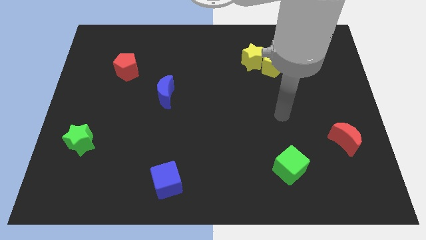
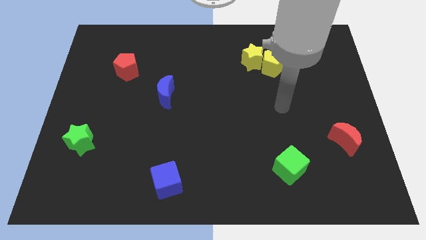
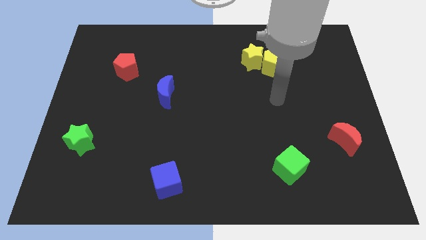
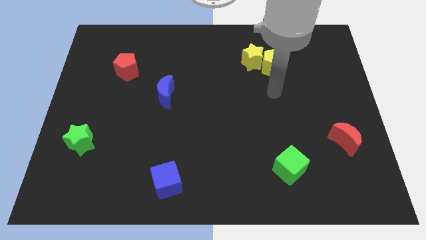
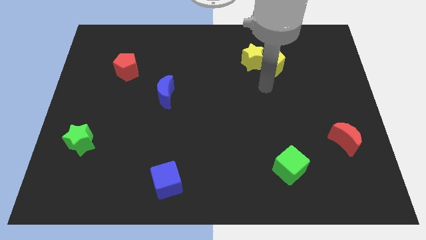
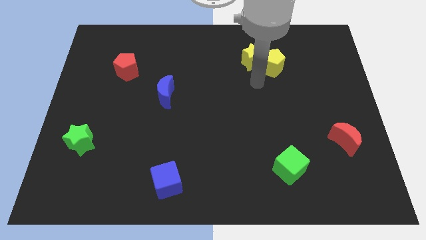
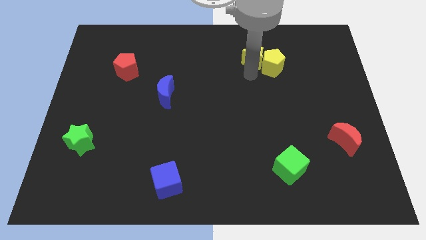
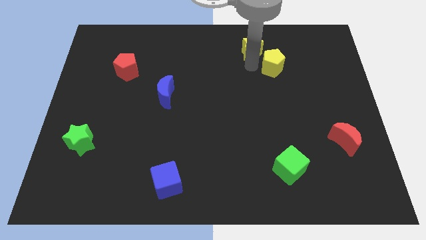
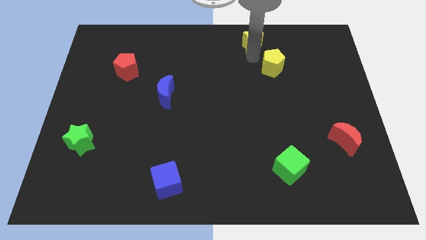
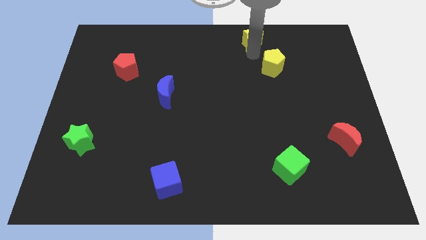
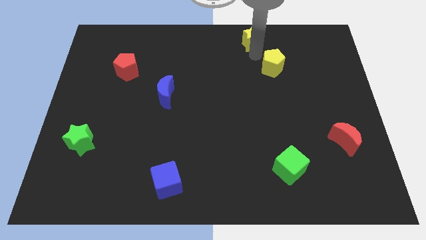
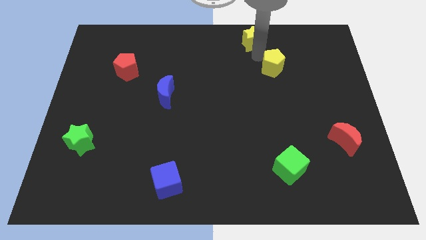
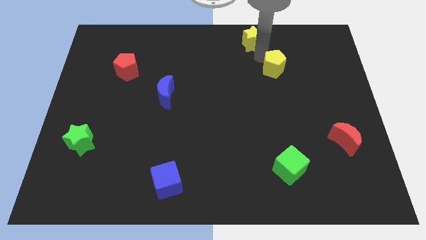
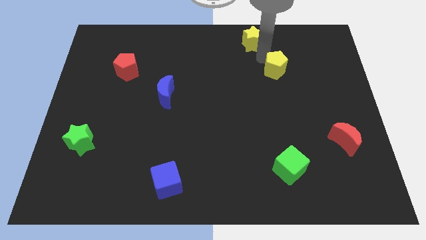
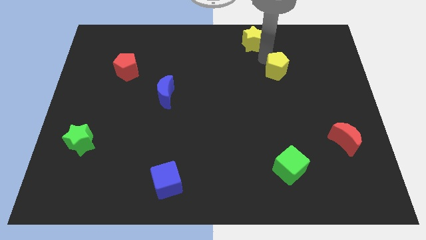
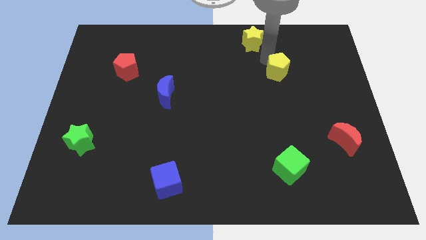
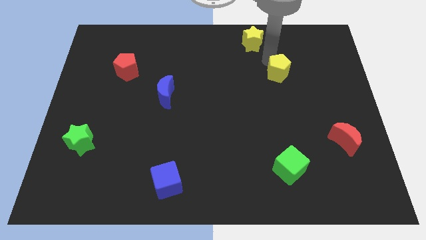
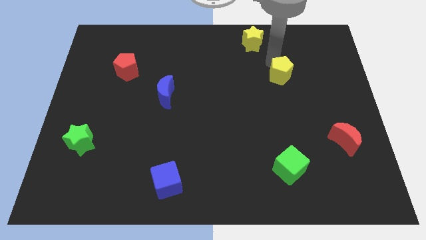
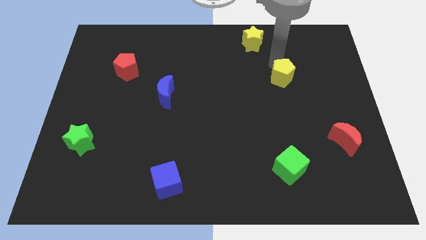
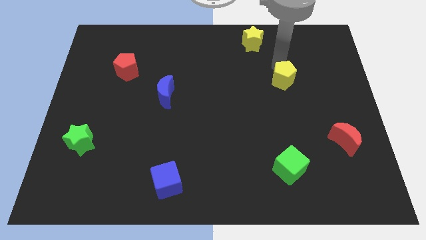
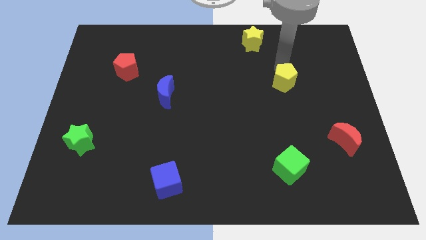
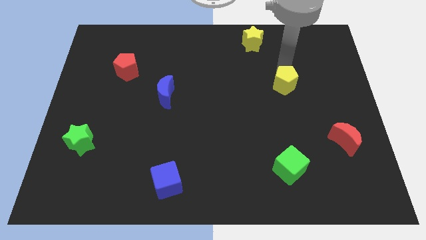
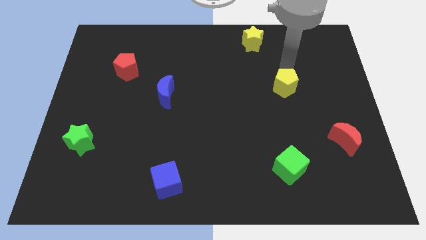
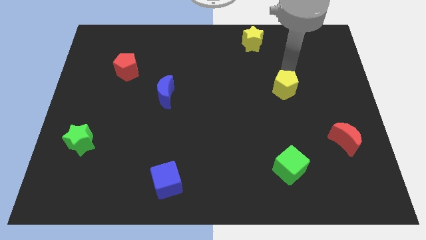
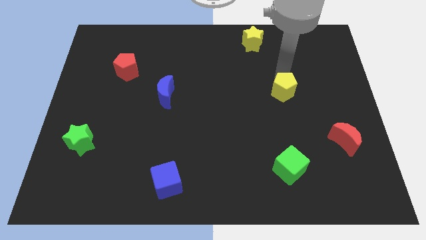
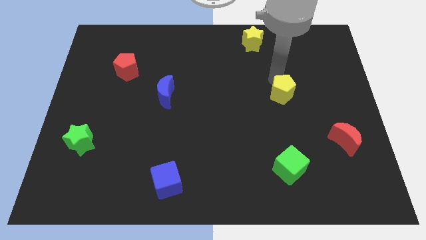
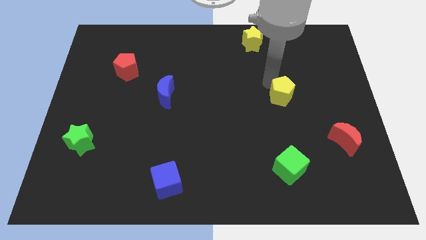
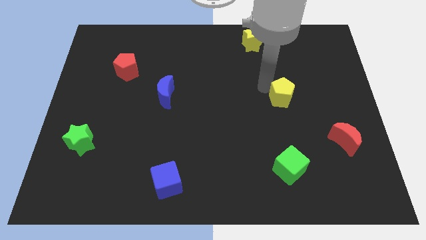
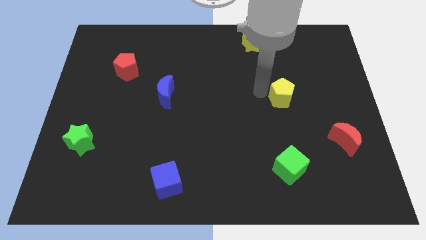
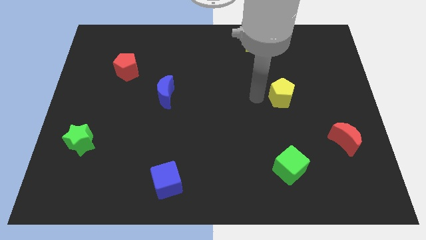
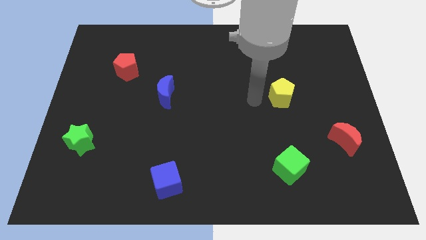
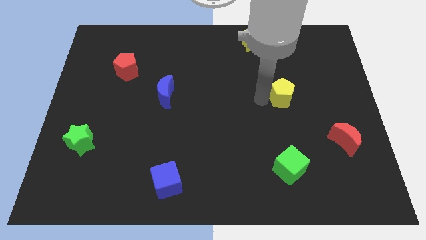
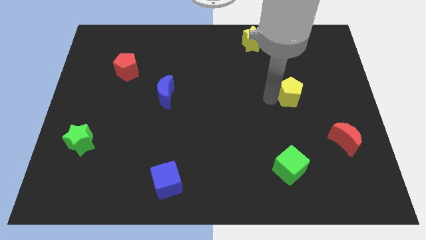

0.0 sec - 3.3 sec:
move the yellow pentagon down and then right a little

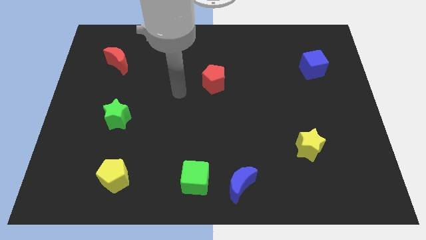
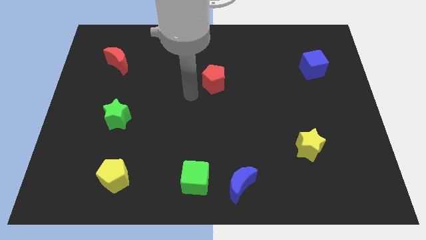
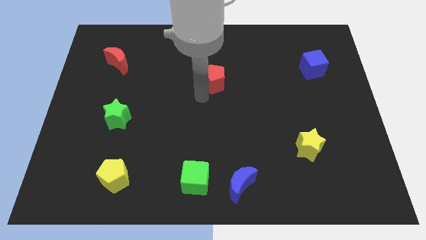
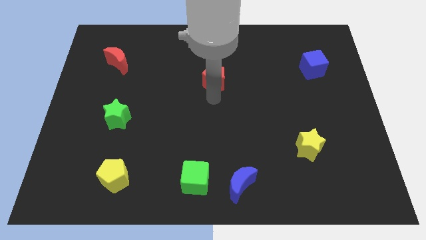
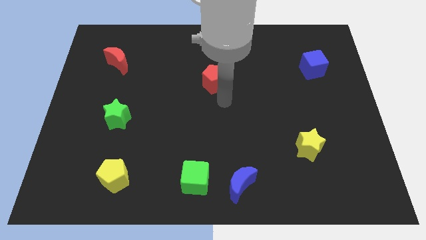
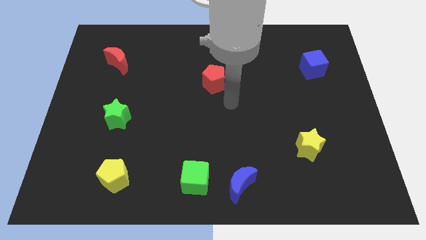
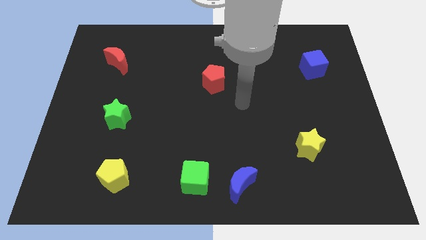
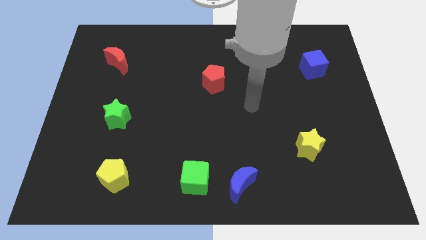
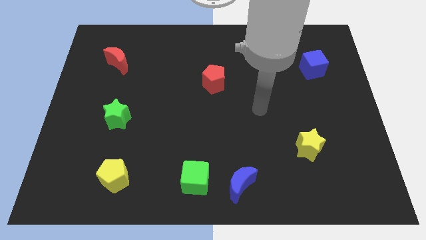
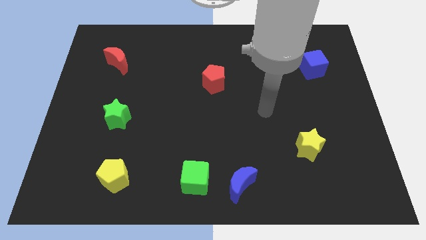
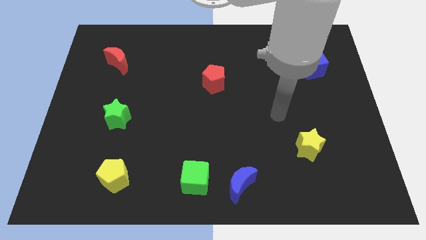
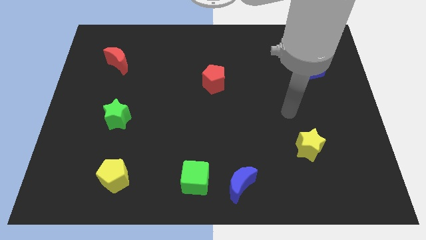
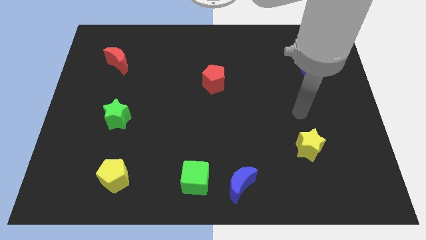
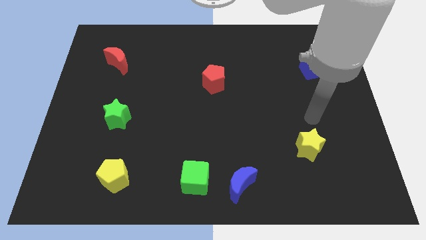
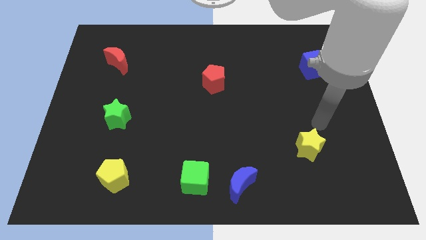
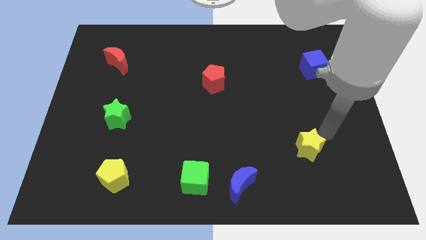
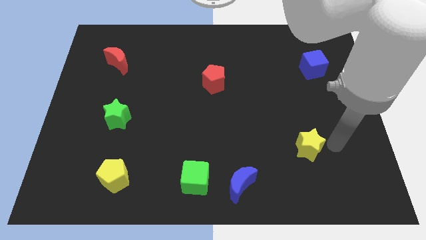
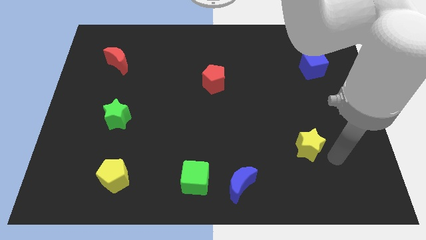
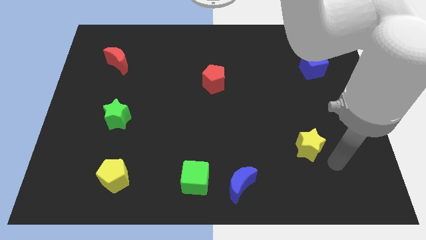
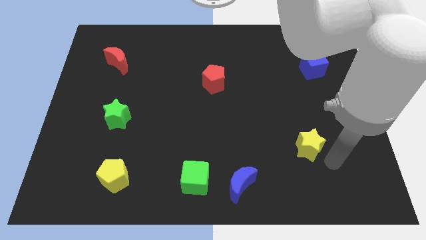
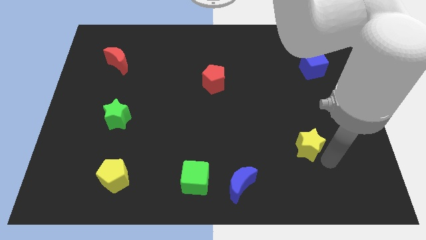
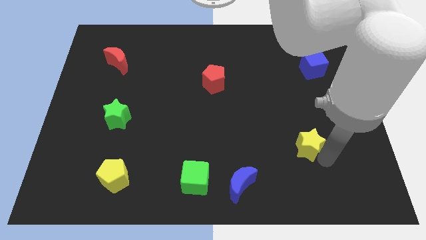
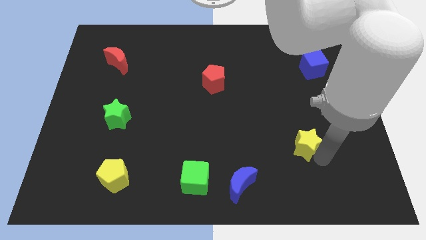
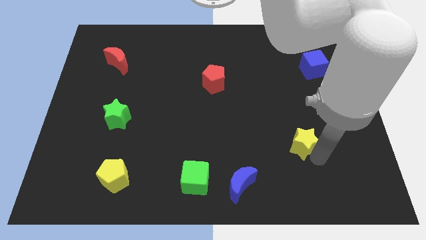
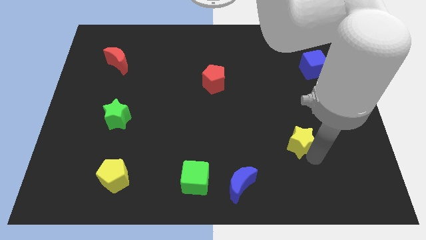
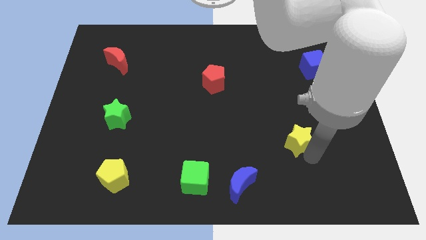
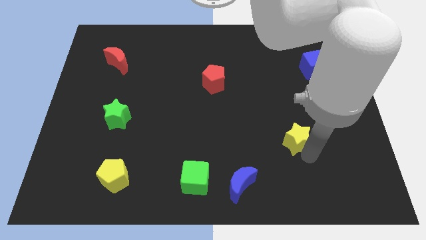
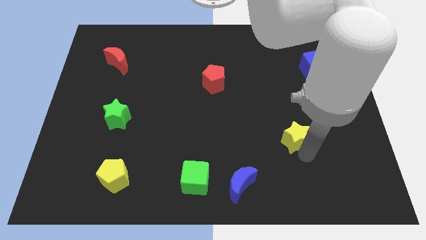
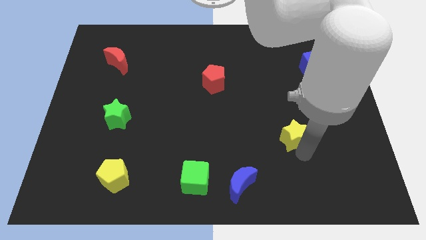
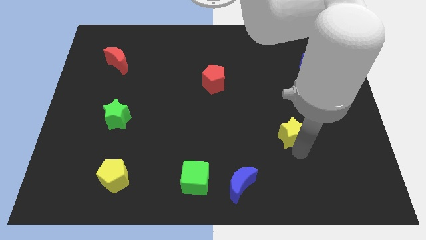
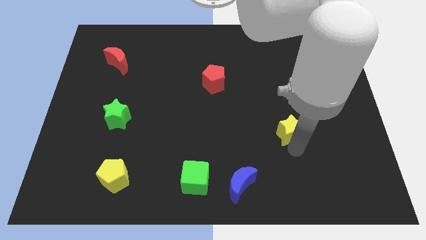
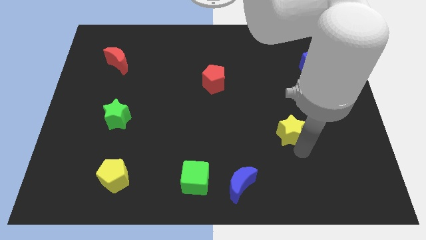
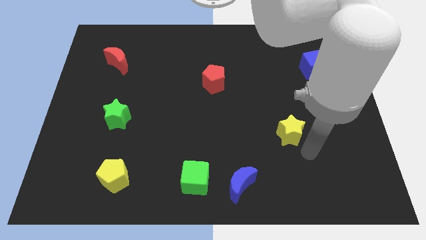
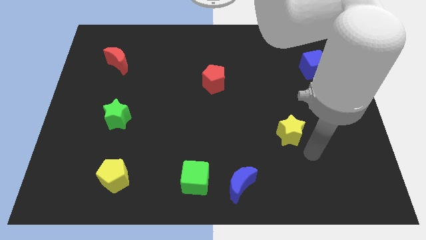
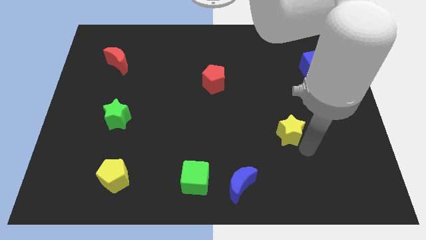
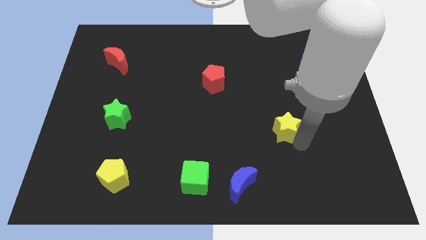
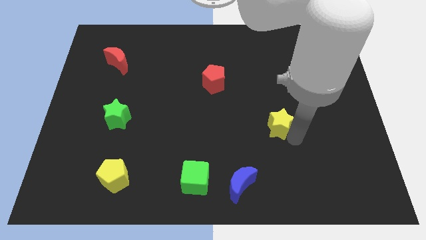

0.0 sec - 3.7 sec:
slightly slide the yellow star diagonally up and left

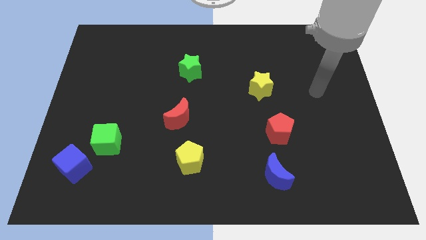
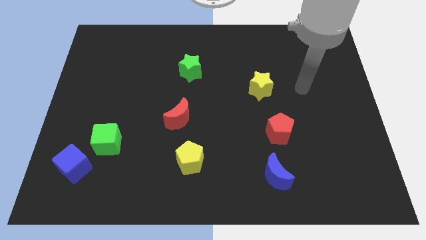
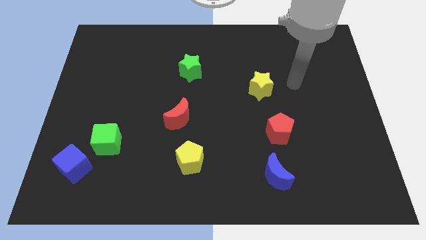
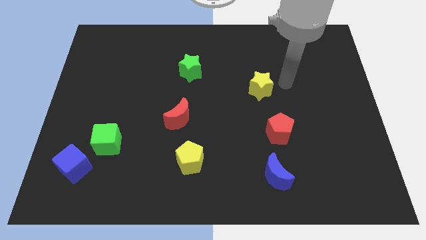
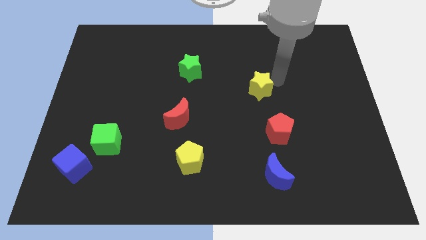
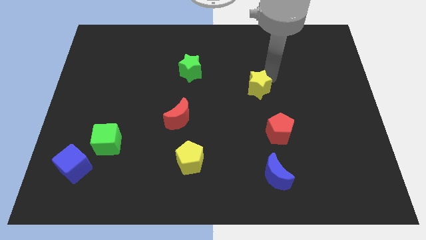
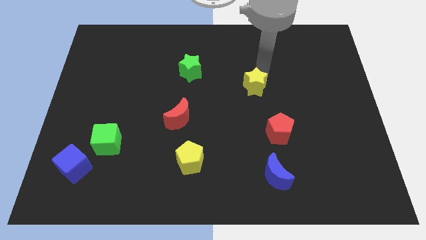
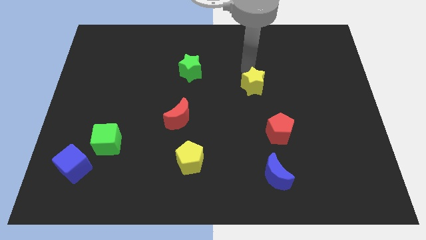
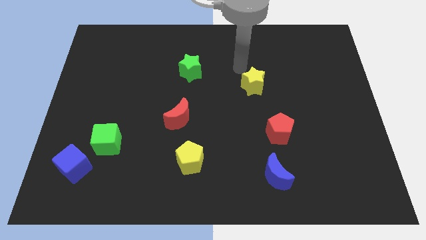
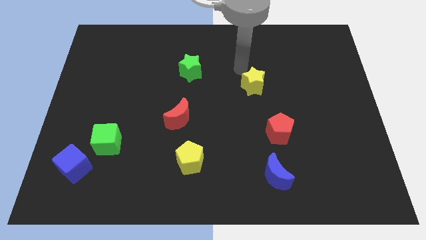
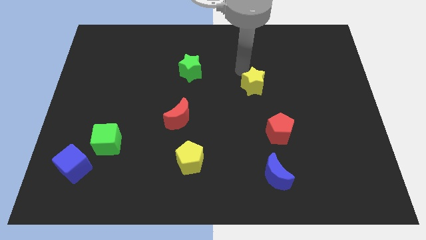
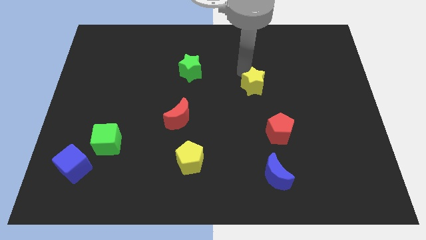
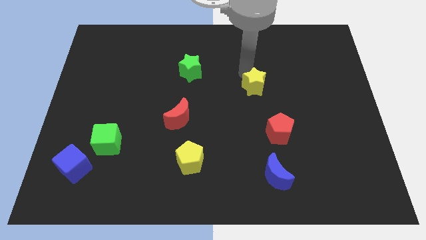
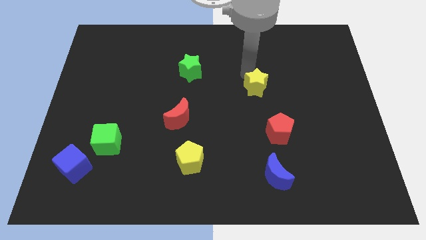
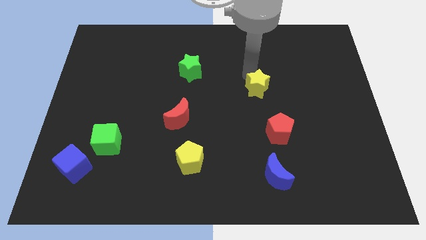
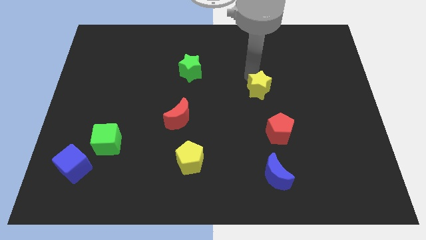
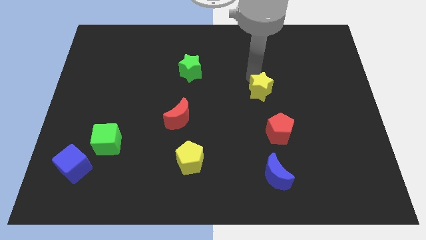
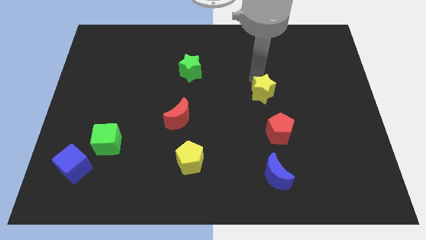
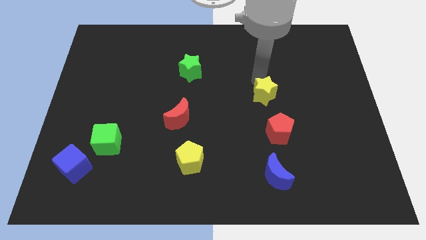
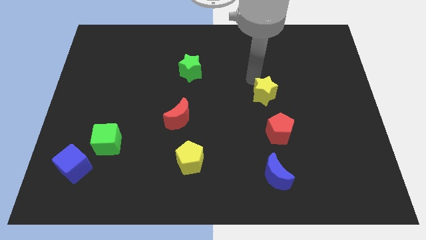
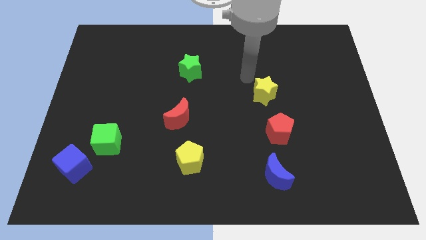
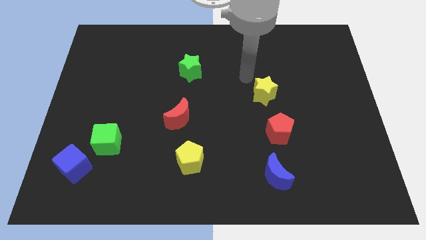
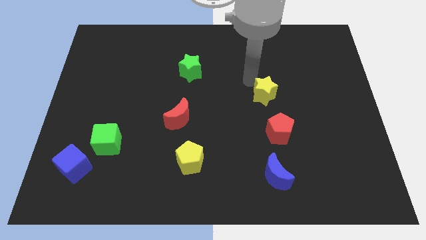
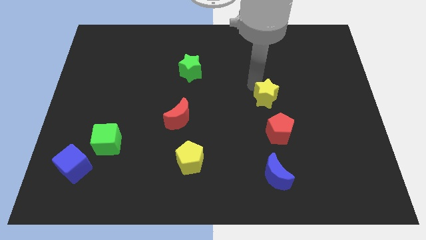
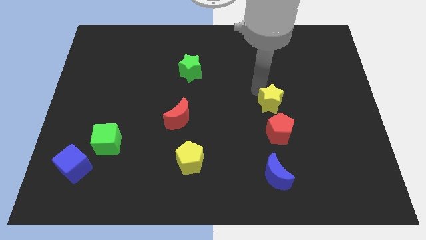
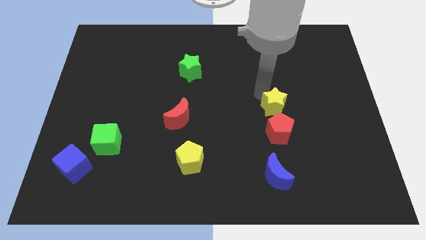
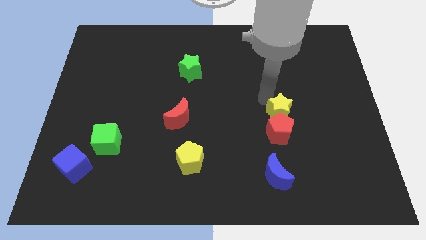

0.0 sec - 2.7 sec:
slightly push the yellow star down and to the right diagonally
